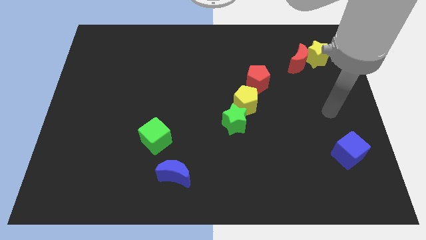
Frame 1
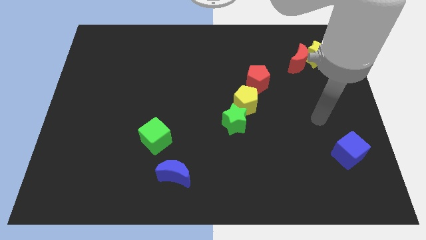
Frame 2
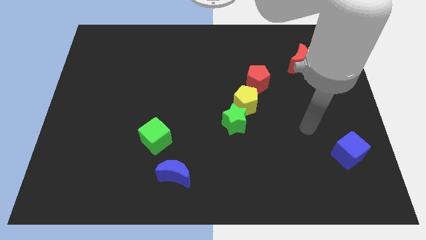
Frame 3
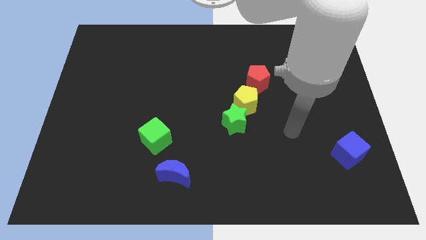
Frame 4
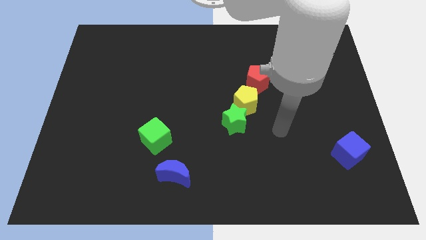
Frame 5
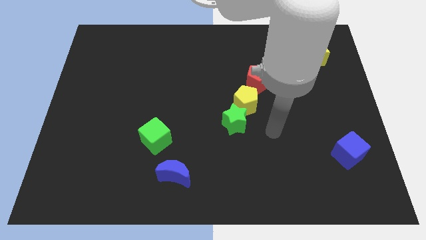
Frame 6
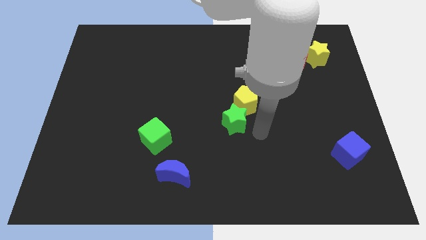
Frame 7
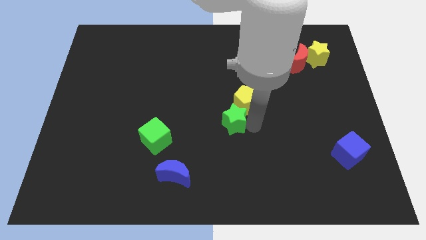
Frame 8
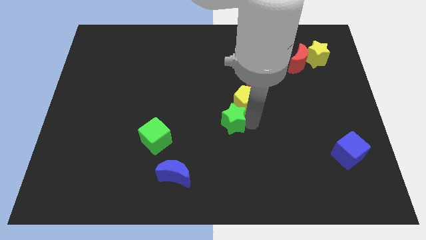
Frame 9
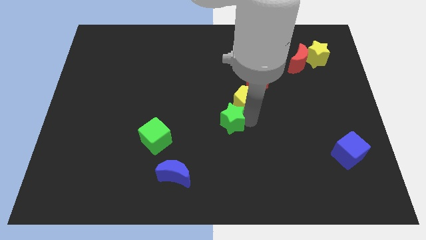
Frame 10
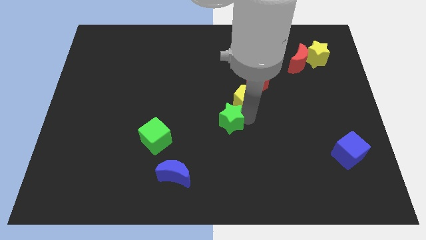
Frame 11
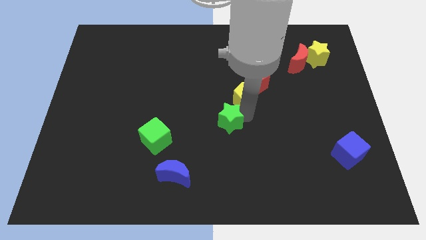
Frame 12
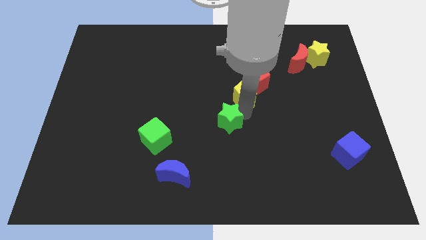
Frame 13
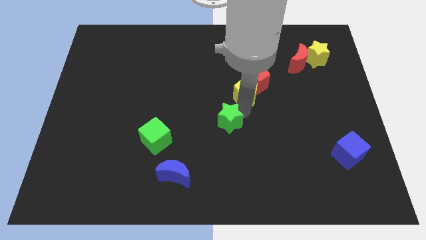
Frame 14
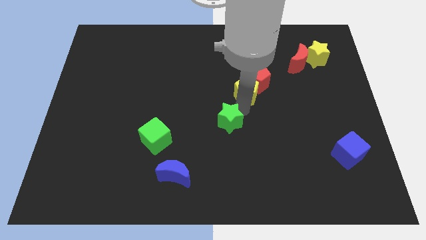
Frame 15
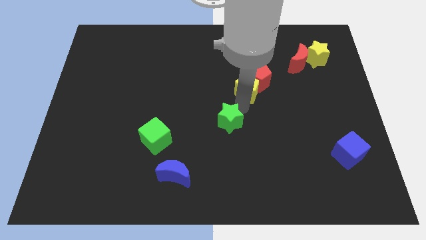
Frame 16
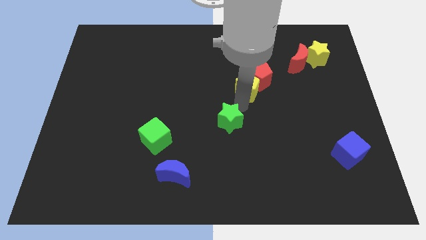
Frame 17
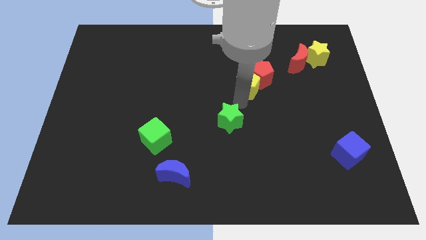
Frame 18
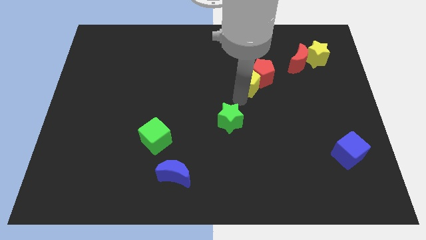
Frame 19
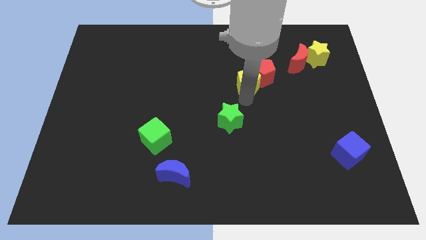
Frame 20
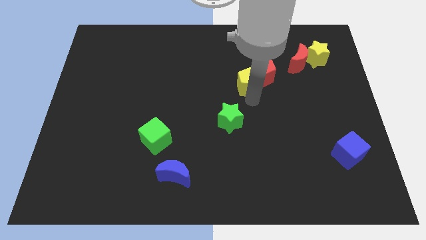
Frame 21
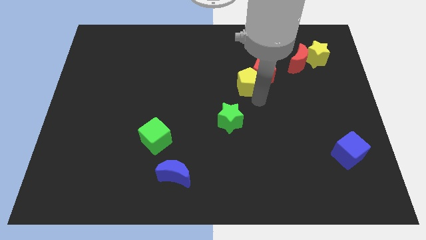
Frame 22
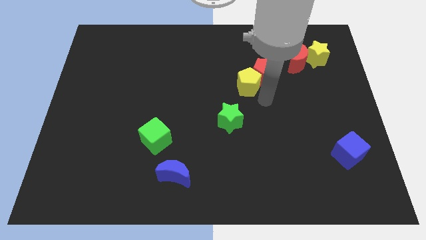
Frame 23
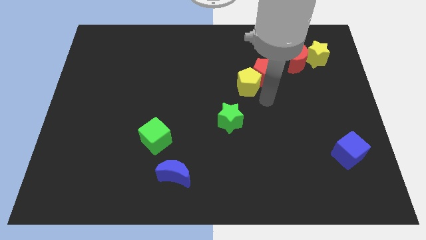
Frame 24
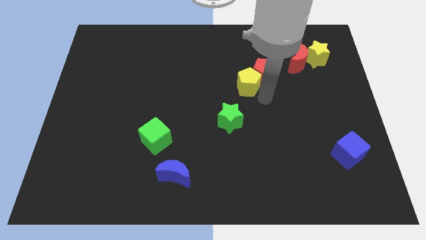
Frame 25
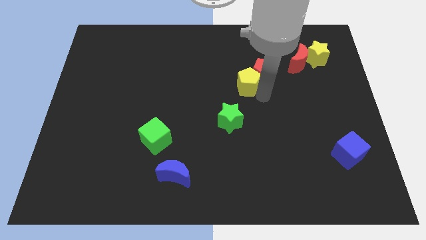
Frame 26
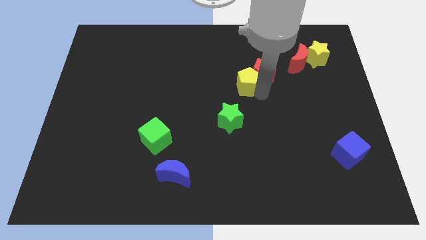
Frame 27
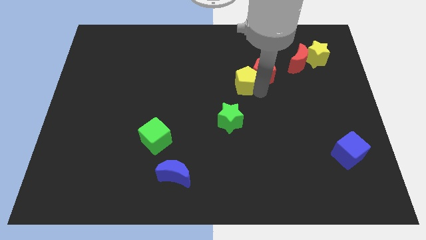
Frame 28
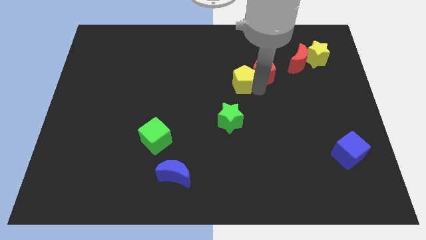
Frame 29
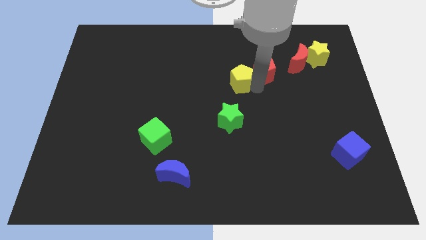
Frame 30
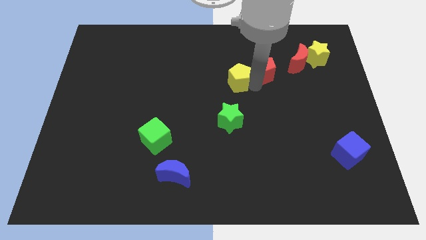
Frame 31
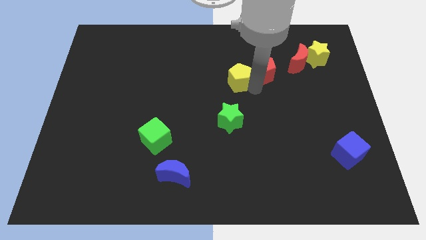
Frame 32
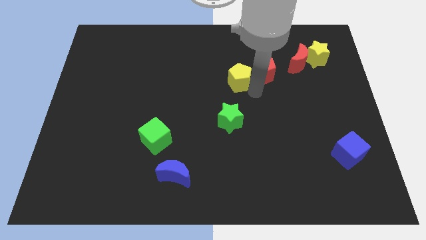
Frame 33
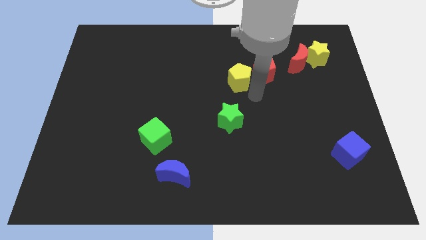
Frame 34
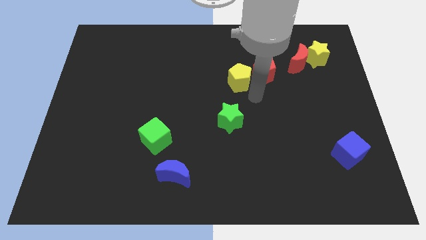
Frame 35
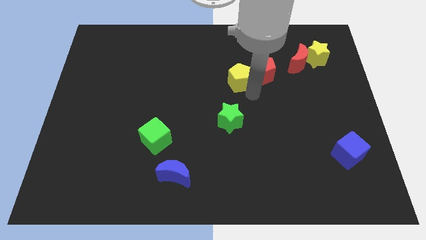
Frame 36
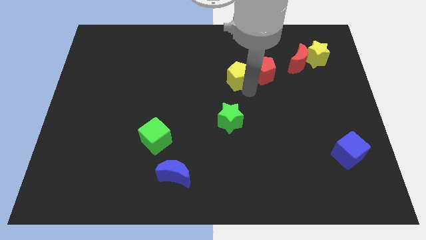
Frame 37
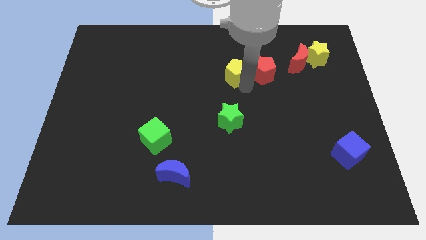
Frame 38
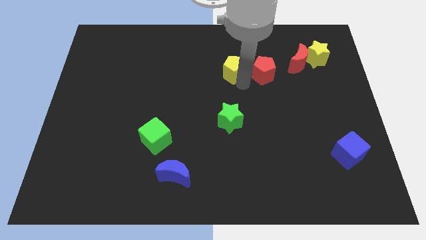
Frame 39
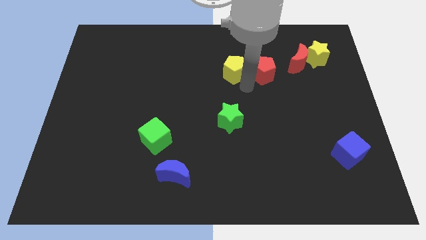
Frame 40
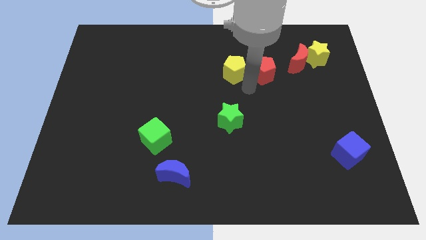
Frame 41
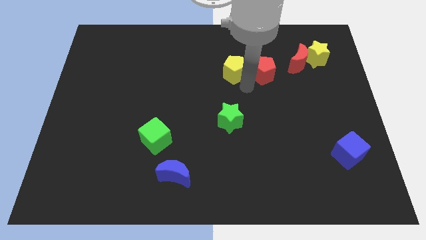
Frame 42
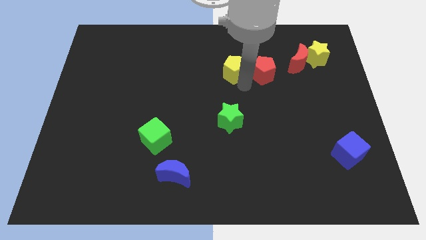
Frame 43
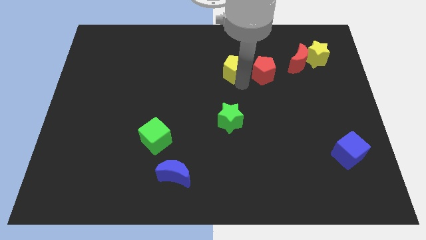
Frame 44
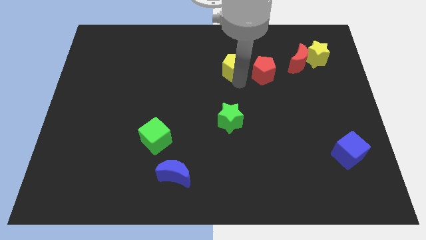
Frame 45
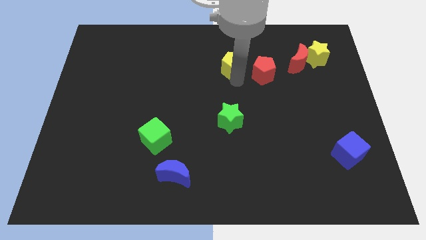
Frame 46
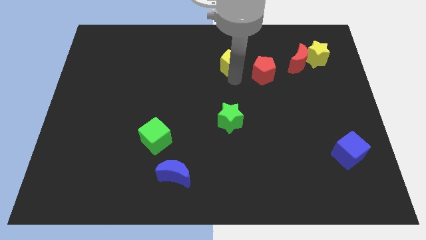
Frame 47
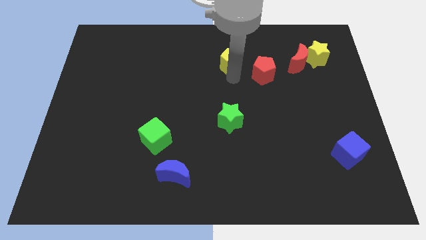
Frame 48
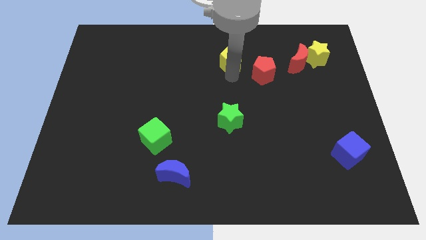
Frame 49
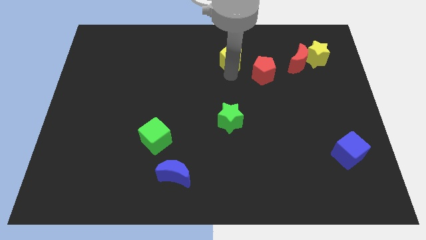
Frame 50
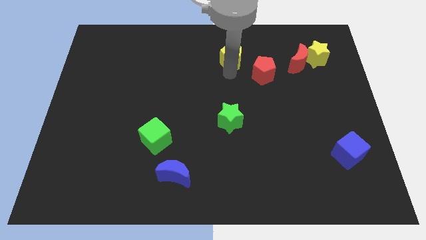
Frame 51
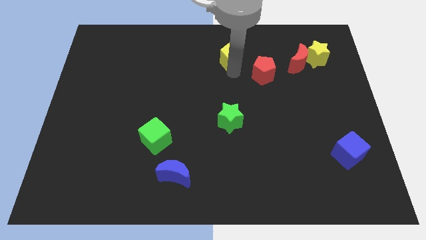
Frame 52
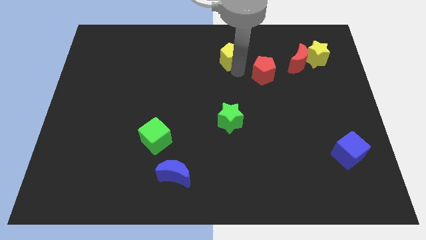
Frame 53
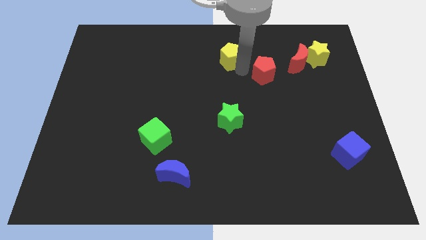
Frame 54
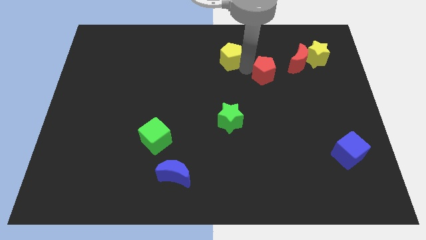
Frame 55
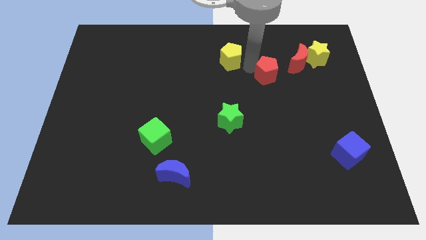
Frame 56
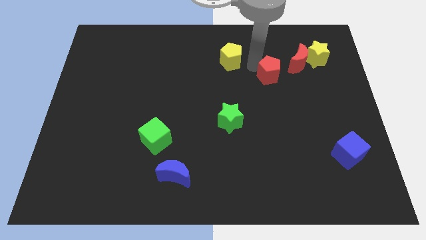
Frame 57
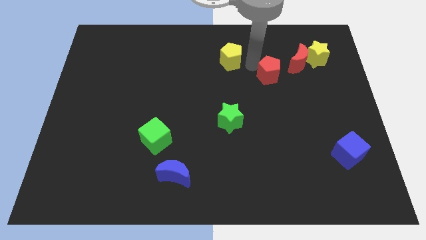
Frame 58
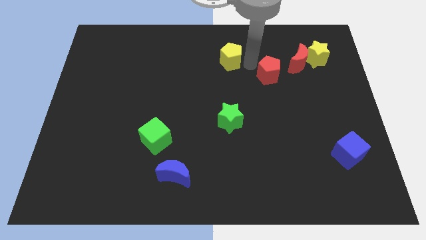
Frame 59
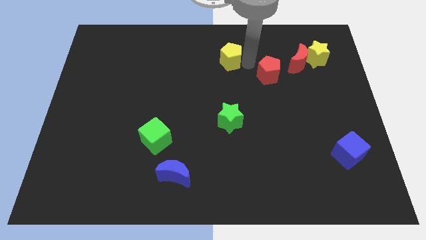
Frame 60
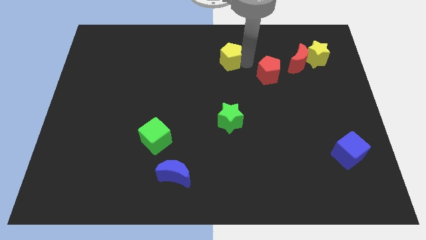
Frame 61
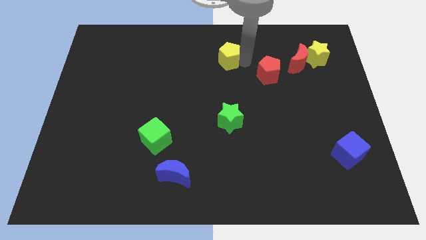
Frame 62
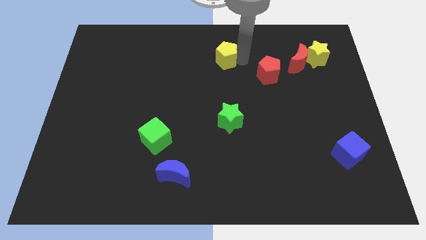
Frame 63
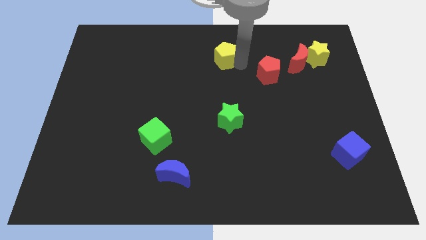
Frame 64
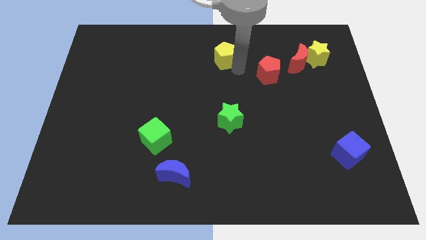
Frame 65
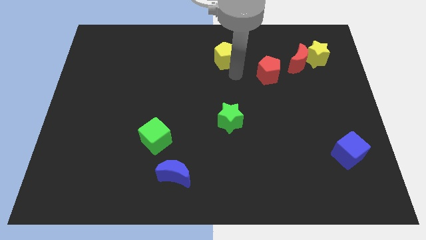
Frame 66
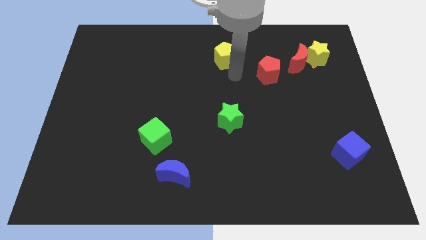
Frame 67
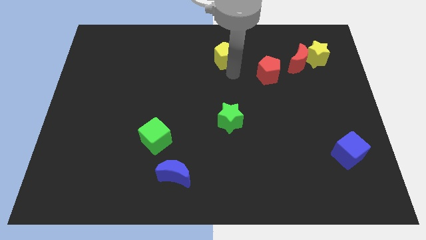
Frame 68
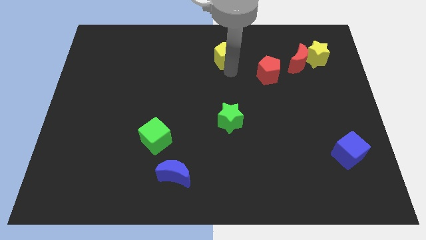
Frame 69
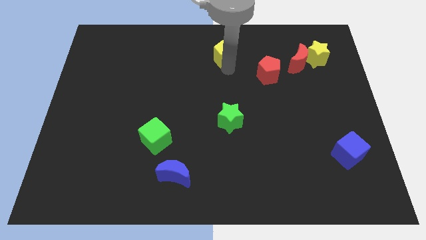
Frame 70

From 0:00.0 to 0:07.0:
move the yellow pentagon to the towards your base
